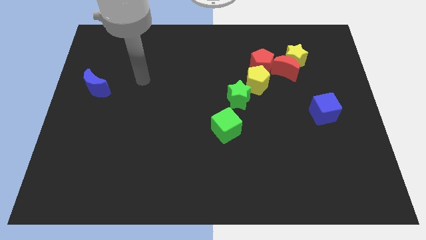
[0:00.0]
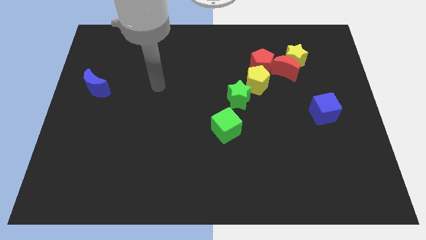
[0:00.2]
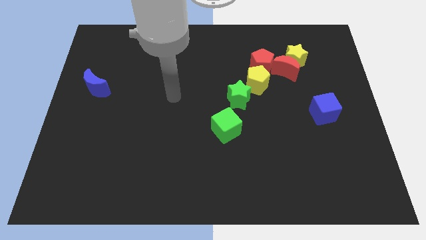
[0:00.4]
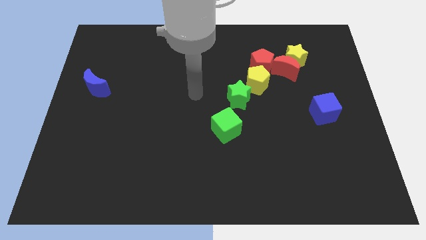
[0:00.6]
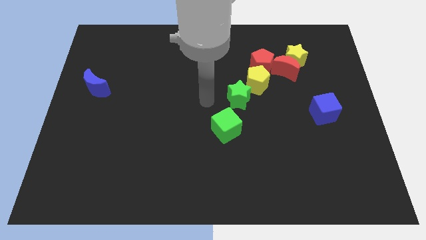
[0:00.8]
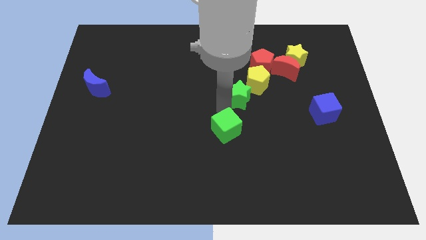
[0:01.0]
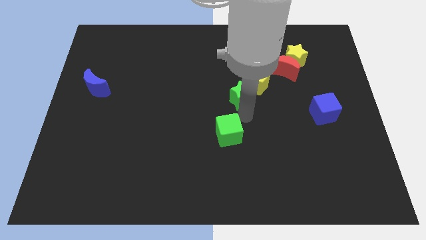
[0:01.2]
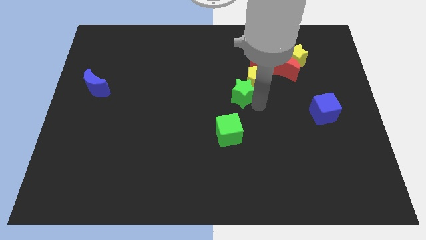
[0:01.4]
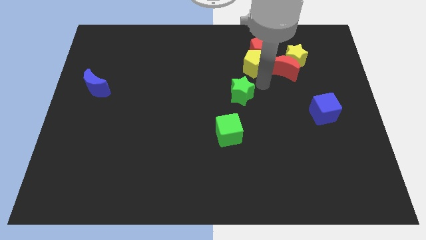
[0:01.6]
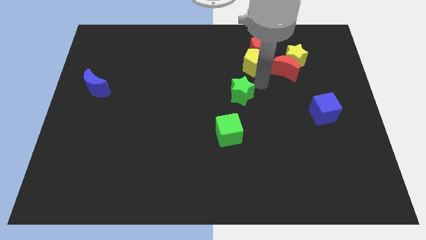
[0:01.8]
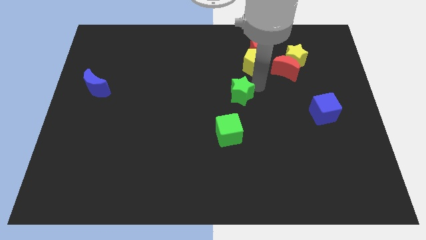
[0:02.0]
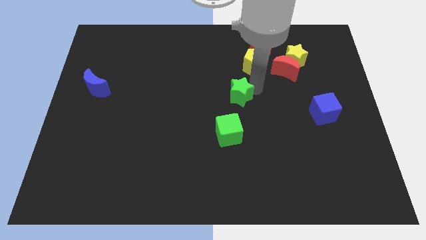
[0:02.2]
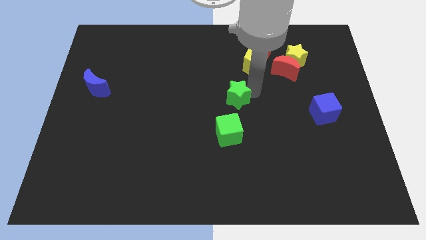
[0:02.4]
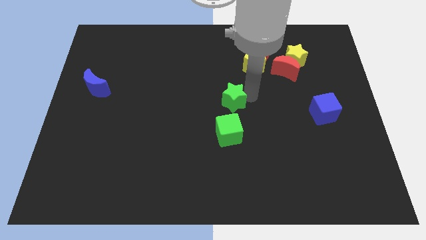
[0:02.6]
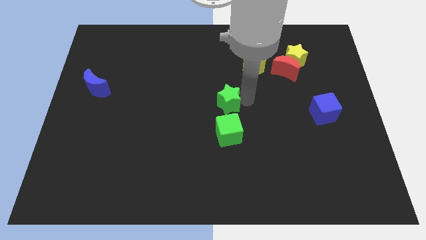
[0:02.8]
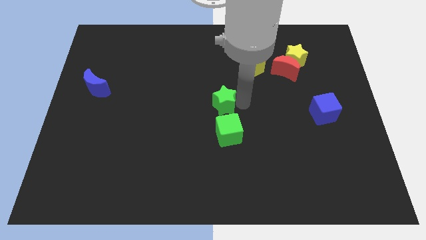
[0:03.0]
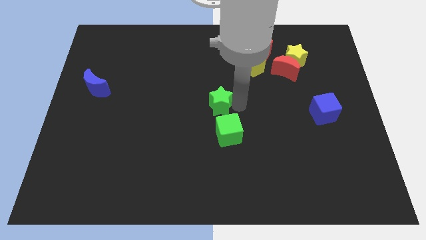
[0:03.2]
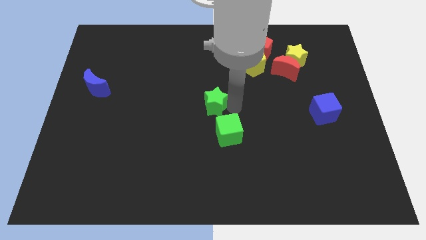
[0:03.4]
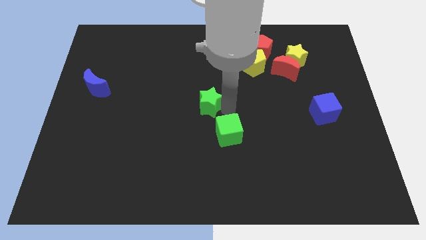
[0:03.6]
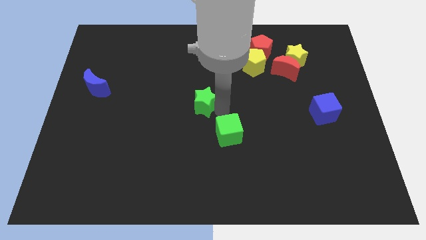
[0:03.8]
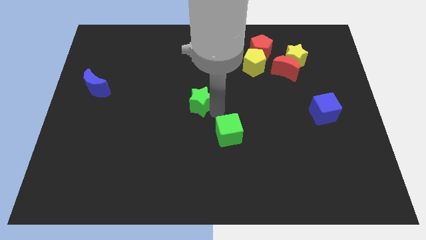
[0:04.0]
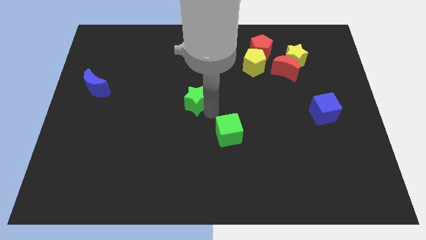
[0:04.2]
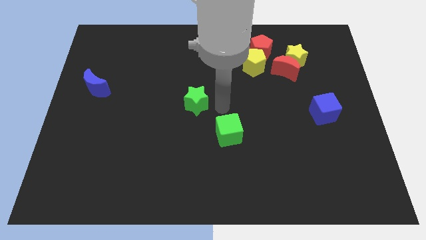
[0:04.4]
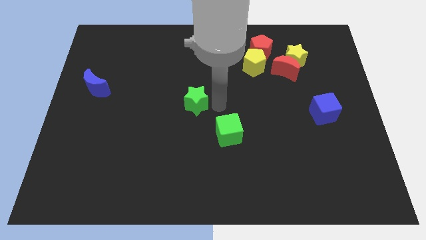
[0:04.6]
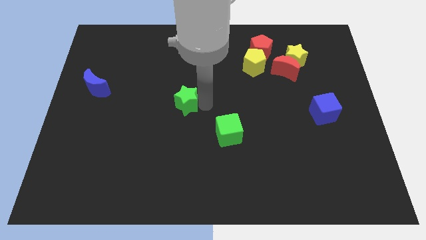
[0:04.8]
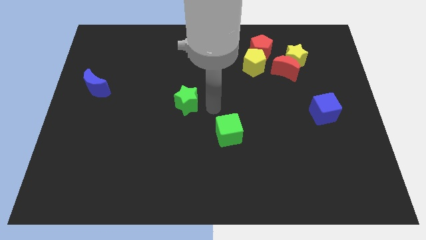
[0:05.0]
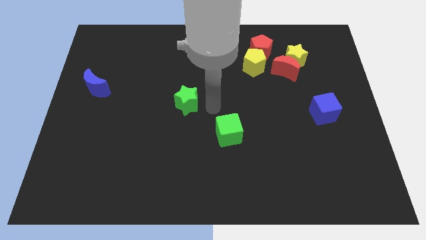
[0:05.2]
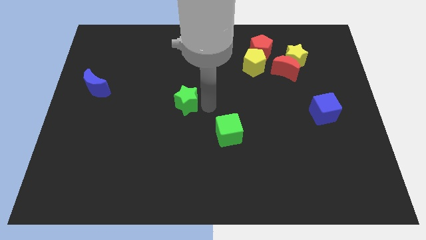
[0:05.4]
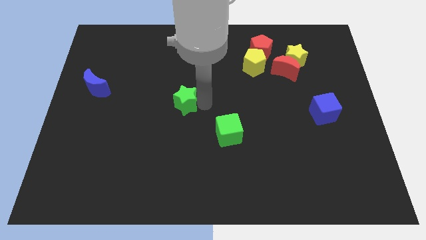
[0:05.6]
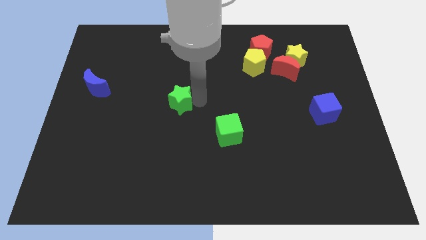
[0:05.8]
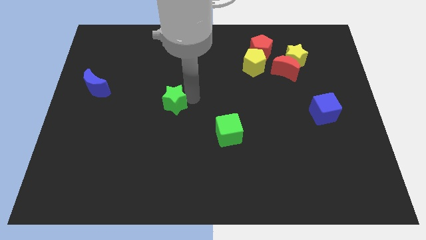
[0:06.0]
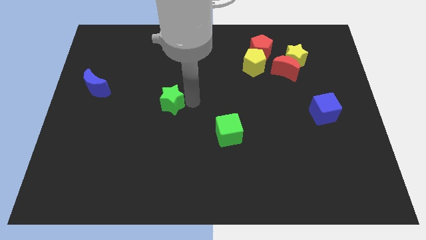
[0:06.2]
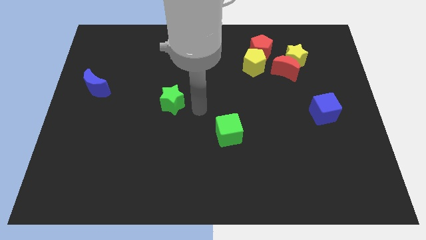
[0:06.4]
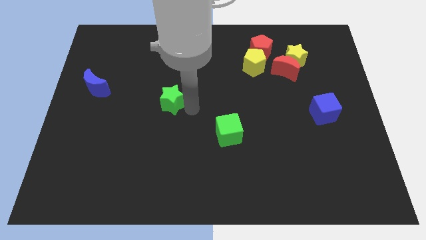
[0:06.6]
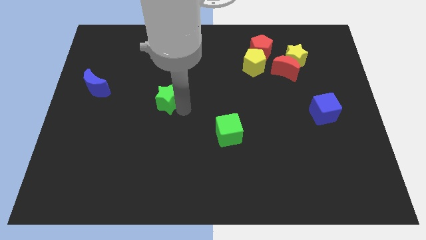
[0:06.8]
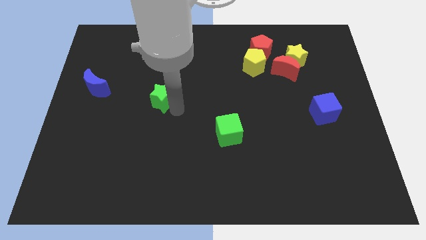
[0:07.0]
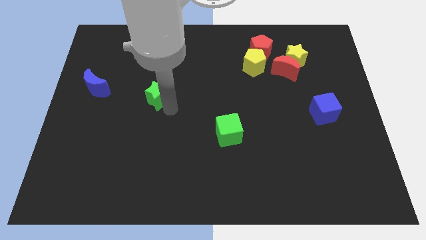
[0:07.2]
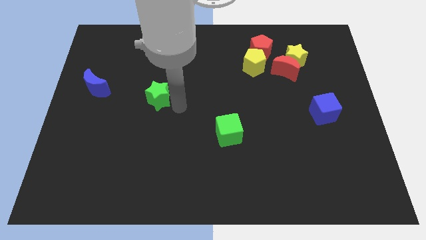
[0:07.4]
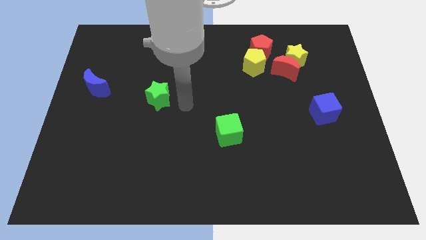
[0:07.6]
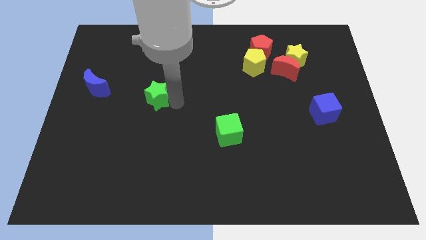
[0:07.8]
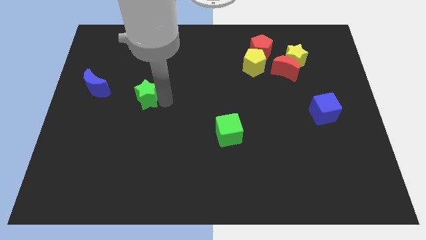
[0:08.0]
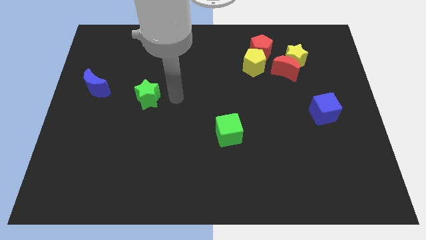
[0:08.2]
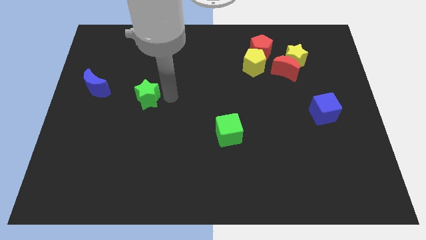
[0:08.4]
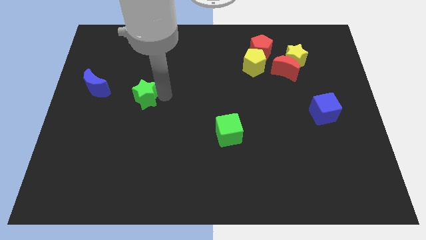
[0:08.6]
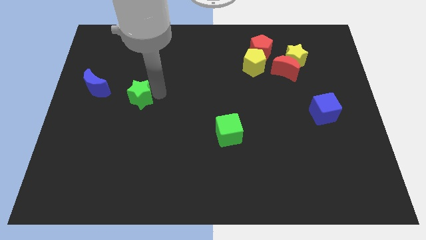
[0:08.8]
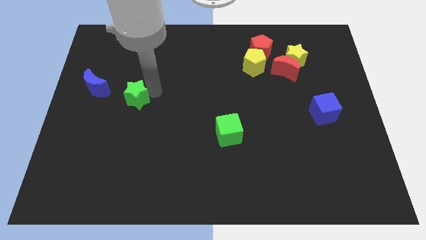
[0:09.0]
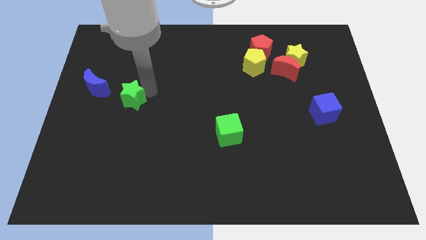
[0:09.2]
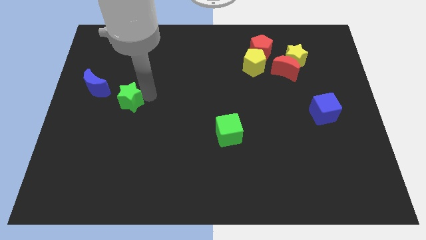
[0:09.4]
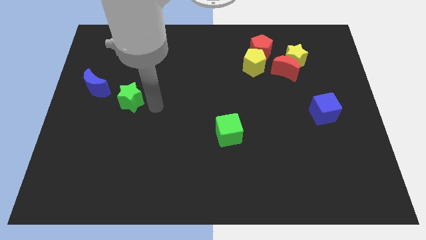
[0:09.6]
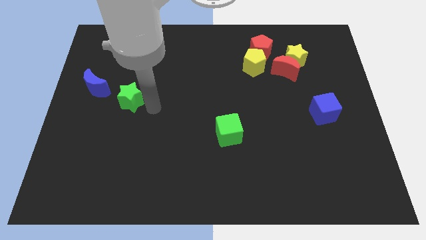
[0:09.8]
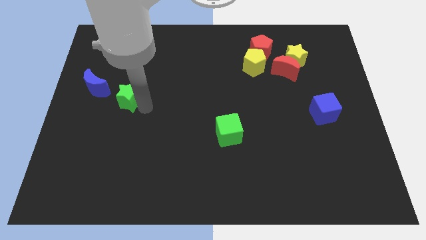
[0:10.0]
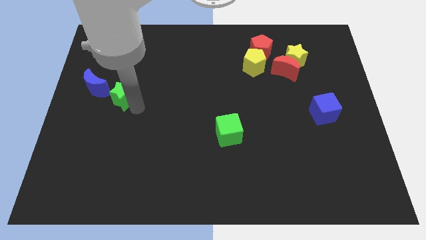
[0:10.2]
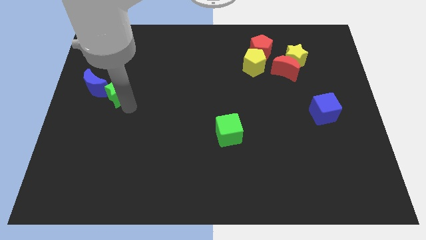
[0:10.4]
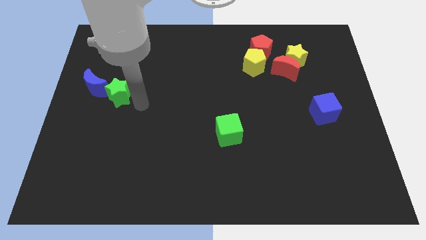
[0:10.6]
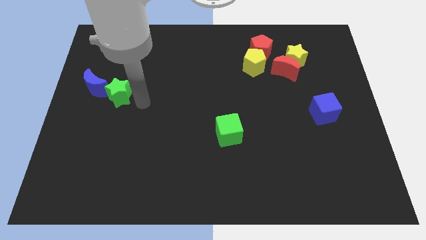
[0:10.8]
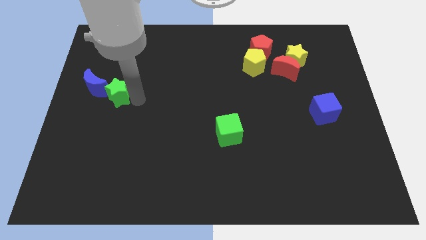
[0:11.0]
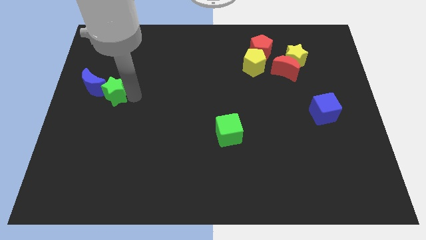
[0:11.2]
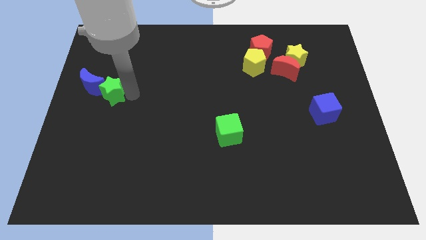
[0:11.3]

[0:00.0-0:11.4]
slide the green star close to the blue moon
